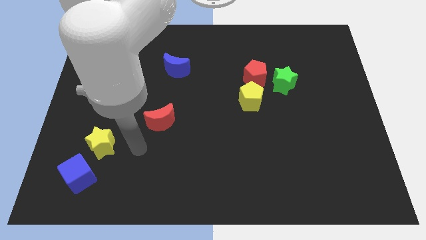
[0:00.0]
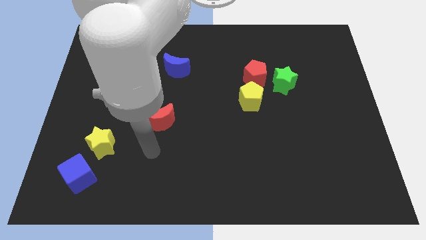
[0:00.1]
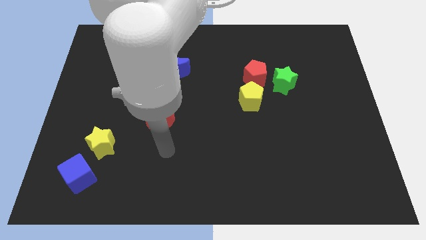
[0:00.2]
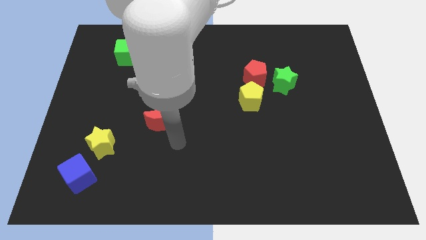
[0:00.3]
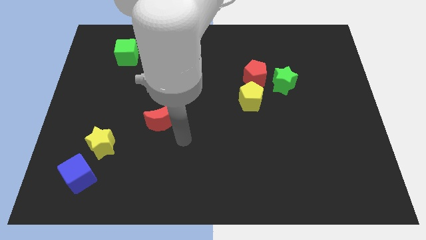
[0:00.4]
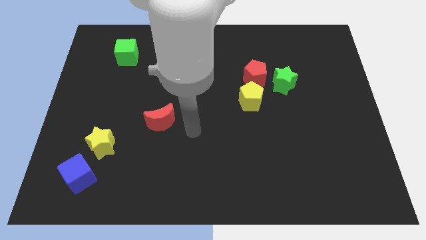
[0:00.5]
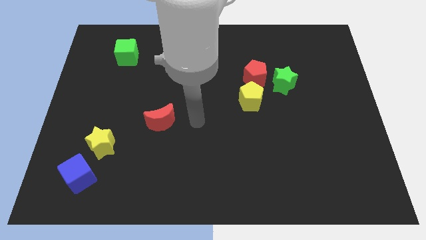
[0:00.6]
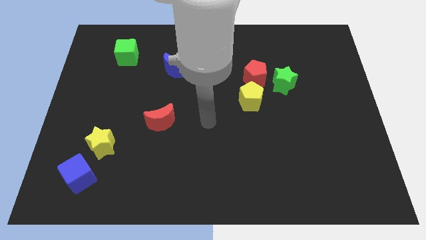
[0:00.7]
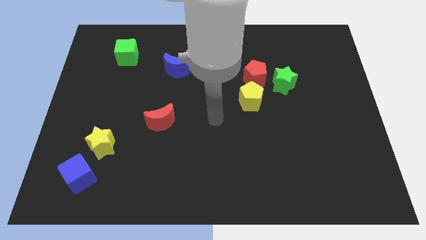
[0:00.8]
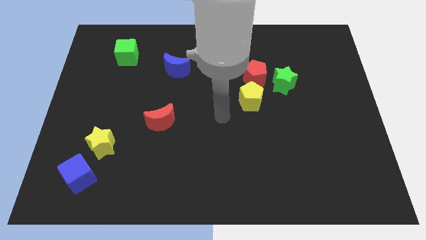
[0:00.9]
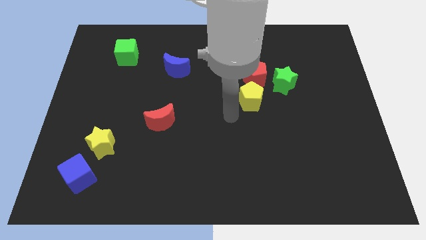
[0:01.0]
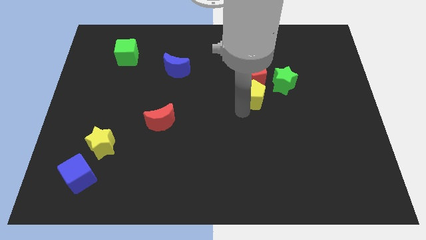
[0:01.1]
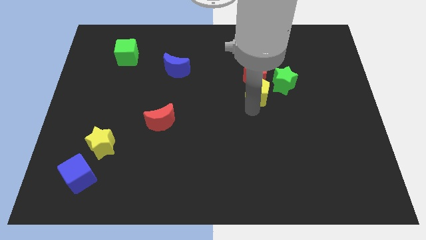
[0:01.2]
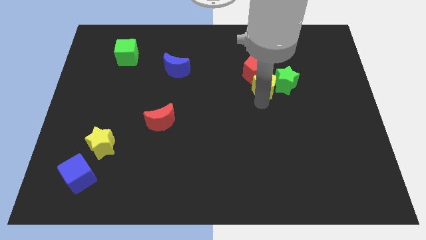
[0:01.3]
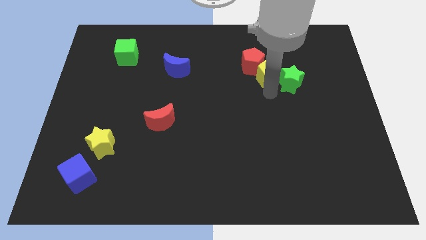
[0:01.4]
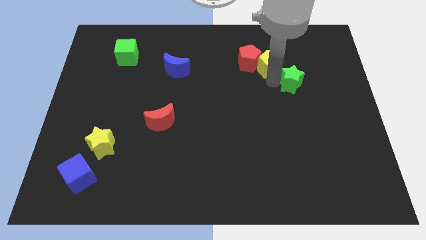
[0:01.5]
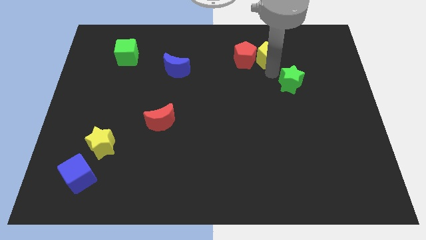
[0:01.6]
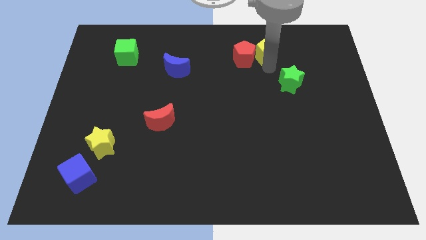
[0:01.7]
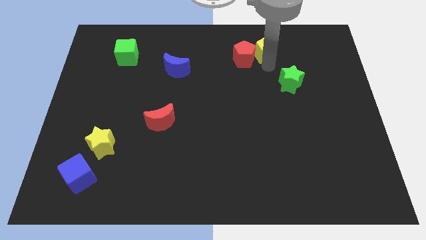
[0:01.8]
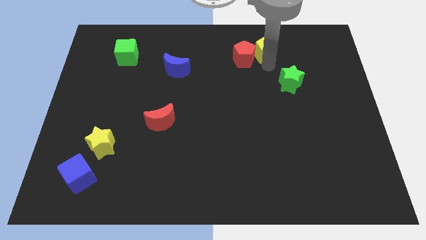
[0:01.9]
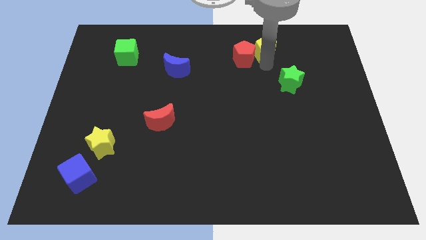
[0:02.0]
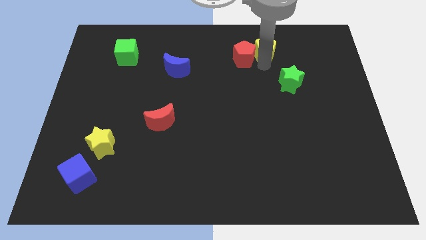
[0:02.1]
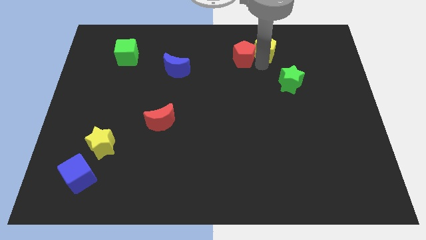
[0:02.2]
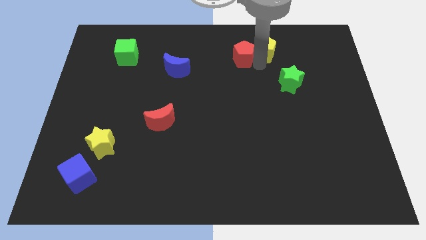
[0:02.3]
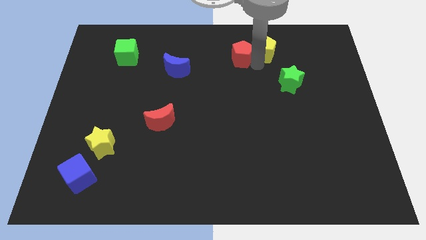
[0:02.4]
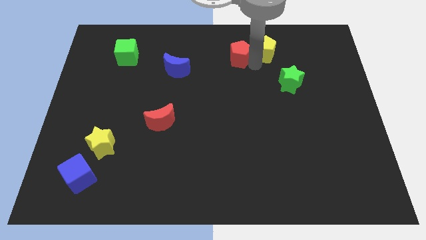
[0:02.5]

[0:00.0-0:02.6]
separate the red pentagon from the green star and yellow pentagon

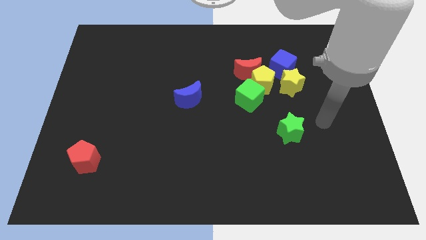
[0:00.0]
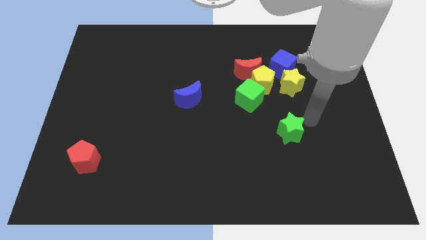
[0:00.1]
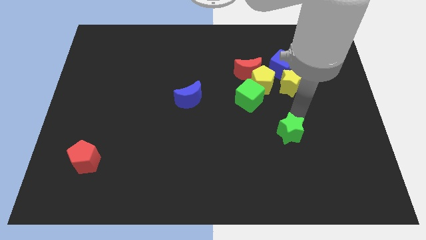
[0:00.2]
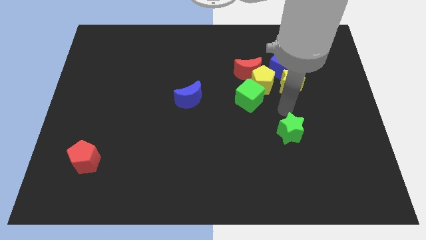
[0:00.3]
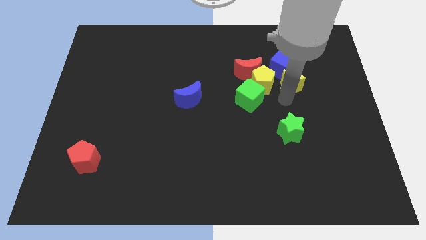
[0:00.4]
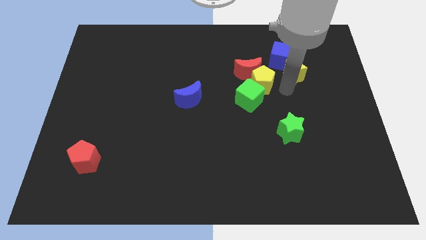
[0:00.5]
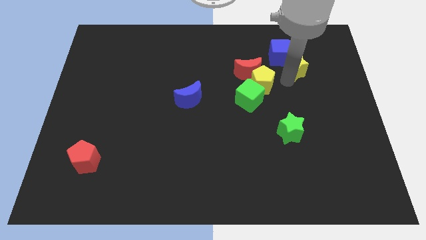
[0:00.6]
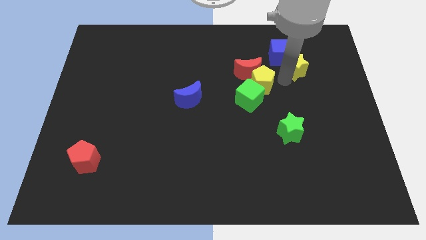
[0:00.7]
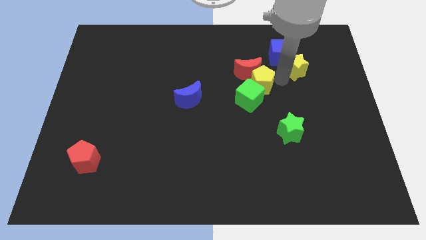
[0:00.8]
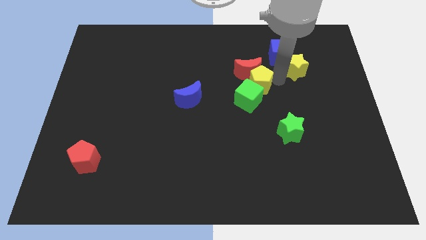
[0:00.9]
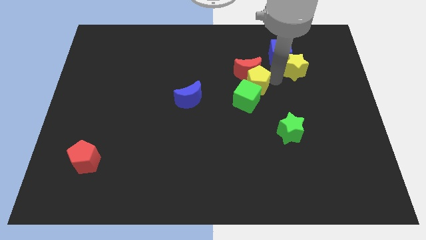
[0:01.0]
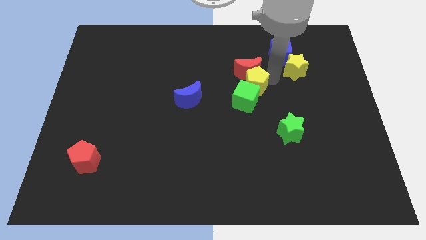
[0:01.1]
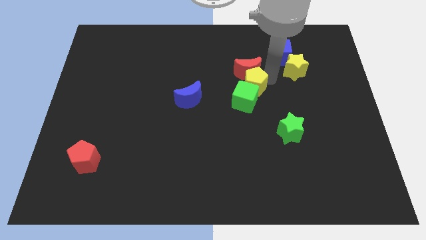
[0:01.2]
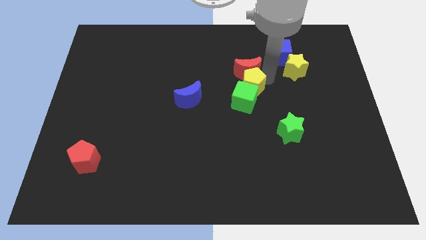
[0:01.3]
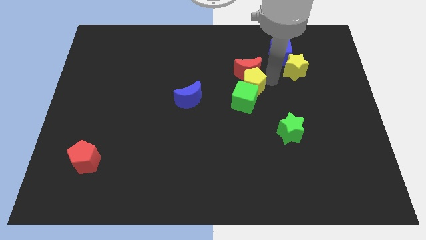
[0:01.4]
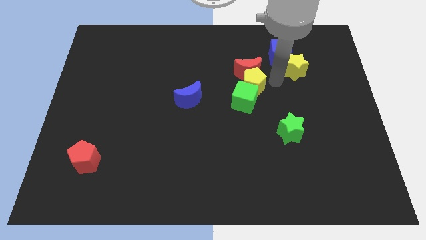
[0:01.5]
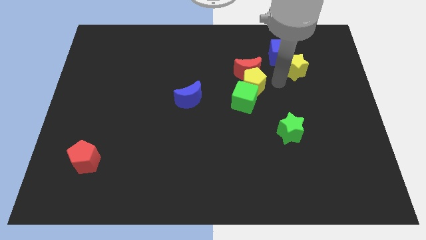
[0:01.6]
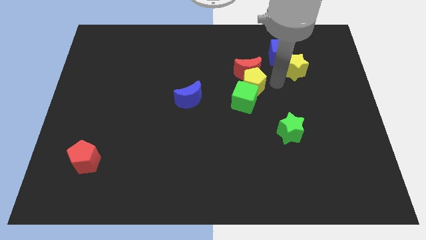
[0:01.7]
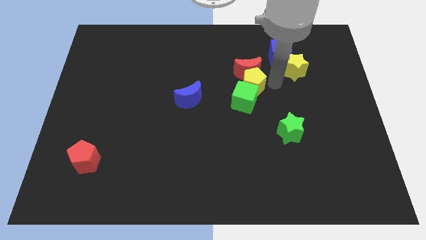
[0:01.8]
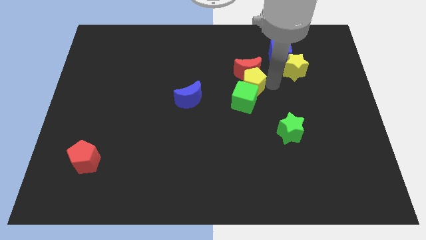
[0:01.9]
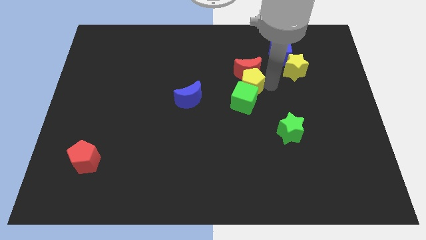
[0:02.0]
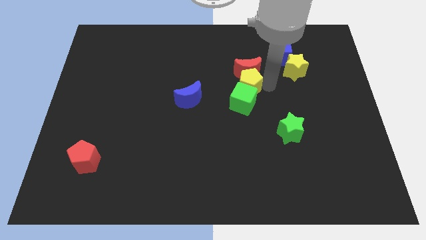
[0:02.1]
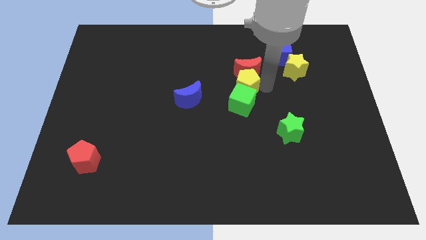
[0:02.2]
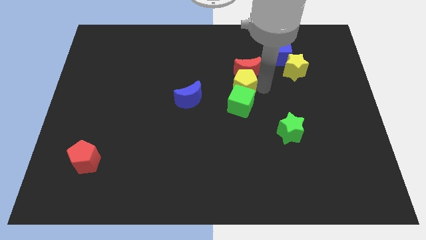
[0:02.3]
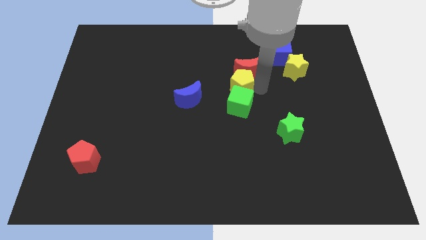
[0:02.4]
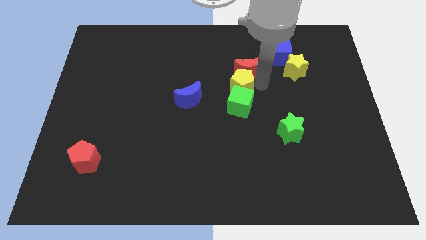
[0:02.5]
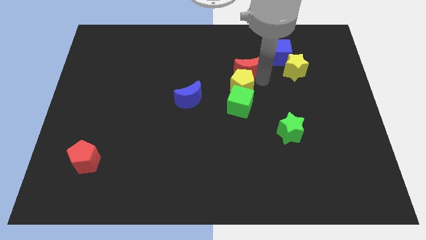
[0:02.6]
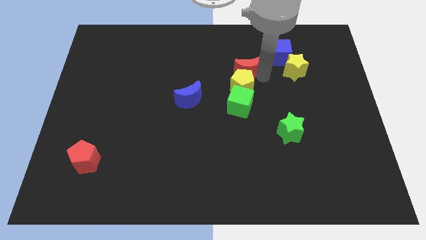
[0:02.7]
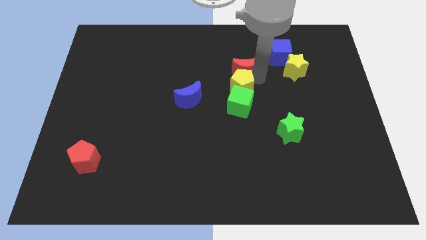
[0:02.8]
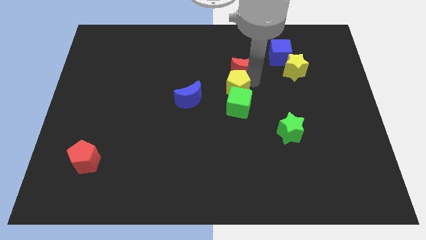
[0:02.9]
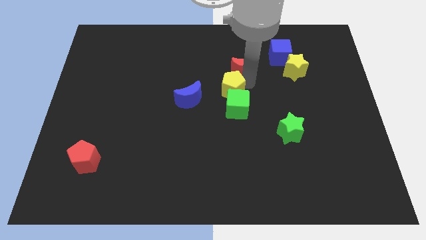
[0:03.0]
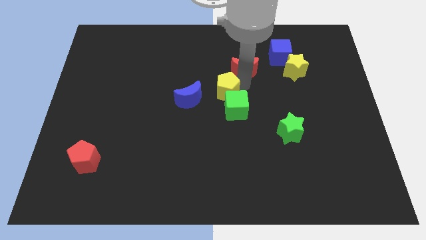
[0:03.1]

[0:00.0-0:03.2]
move the yellow pentagon away from the clump

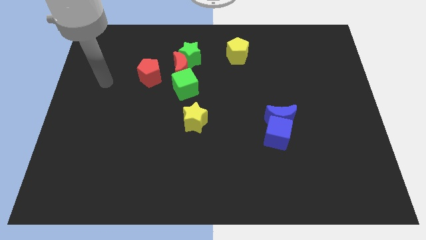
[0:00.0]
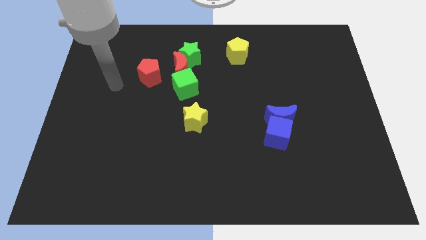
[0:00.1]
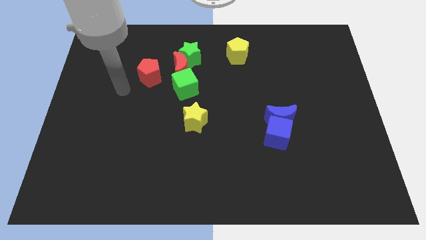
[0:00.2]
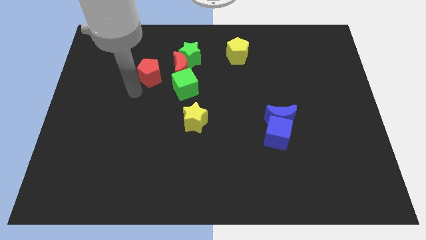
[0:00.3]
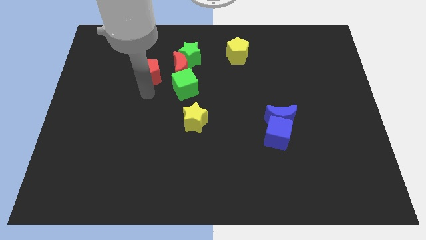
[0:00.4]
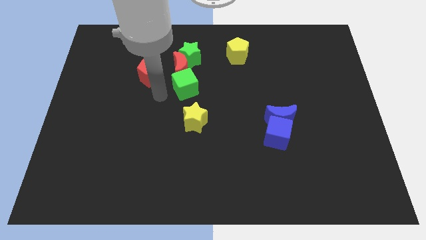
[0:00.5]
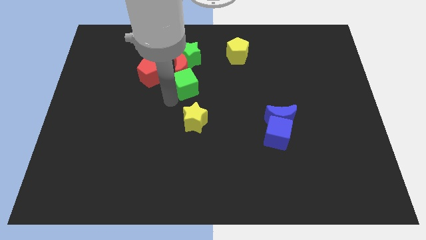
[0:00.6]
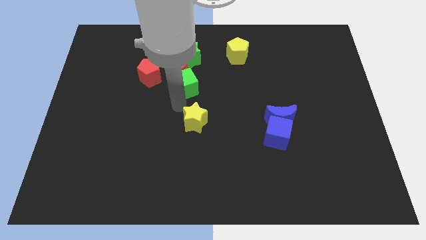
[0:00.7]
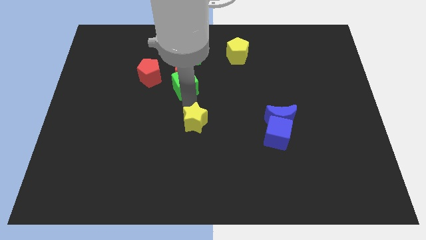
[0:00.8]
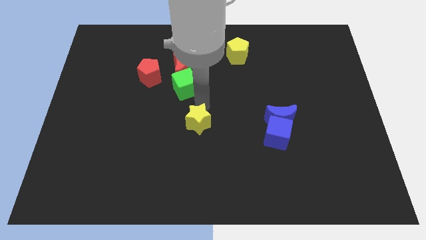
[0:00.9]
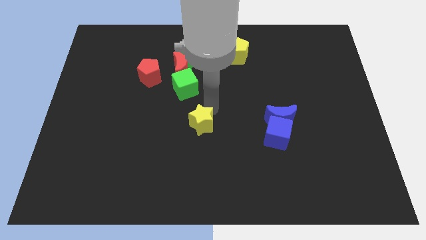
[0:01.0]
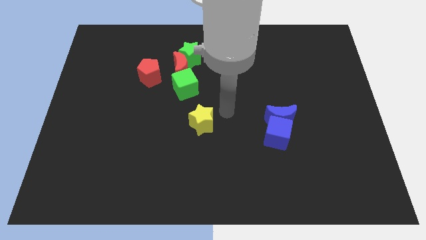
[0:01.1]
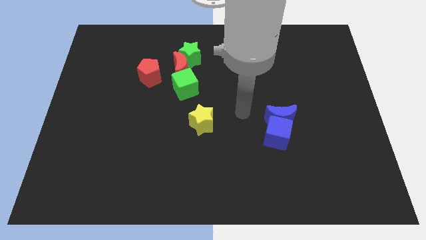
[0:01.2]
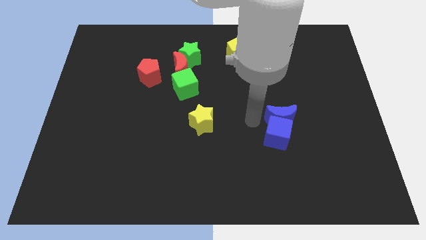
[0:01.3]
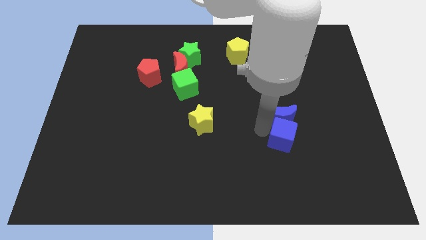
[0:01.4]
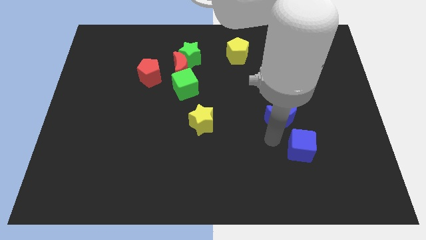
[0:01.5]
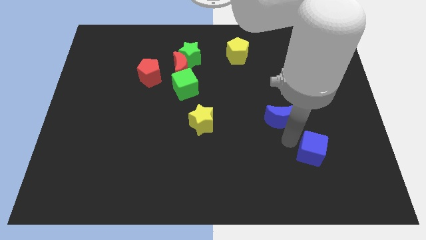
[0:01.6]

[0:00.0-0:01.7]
pull the blue moon apart from the blue cube

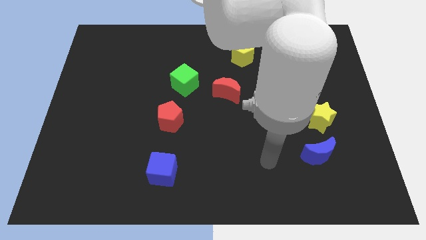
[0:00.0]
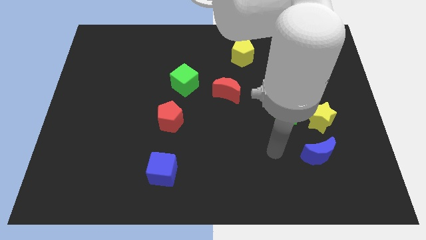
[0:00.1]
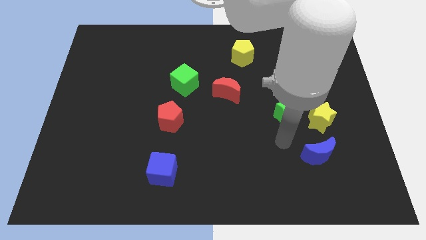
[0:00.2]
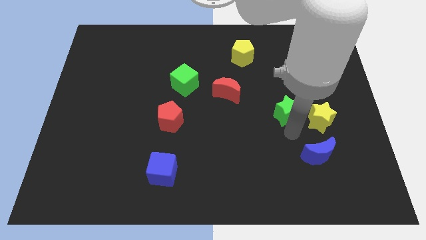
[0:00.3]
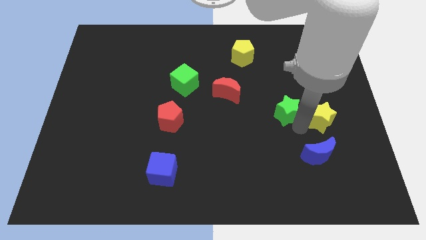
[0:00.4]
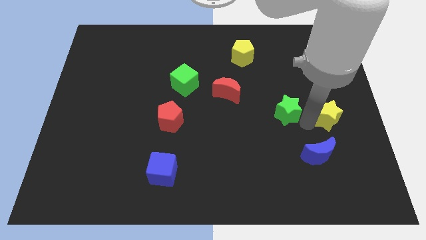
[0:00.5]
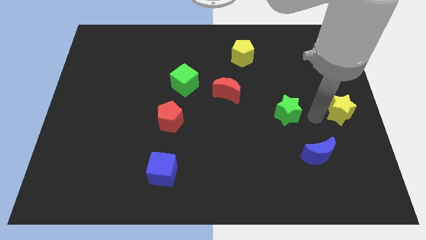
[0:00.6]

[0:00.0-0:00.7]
pull the green star apart from the yellow star

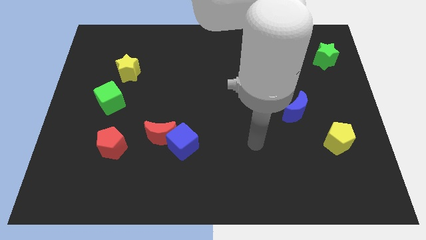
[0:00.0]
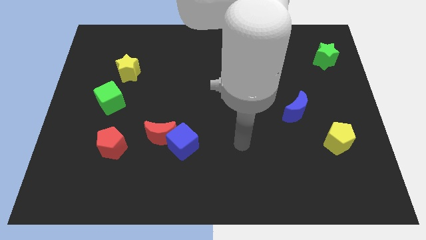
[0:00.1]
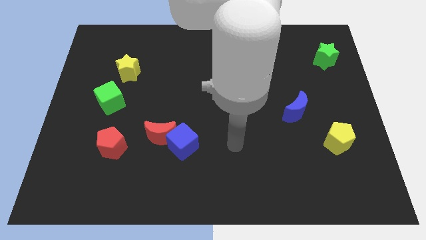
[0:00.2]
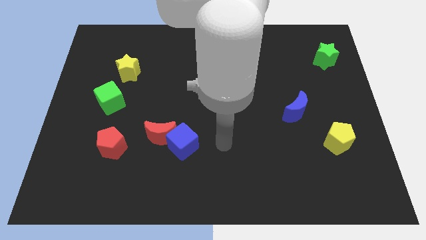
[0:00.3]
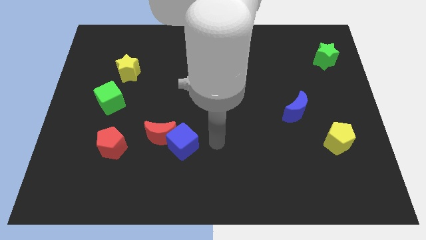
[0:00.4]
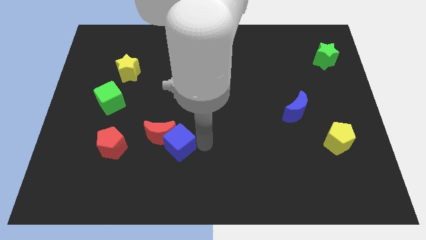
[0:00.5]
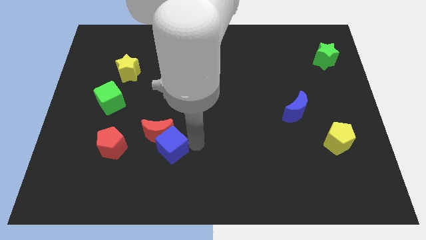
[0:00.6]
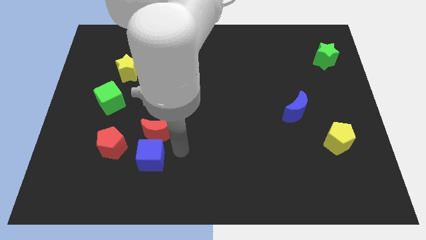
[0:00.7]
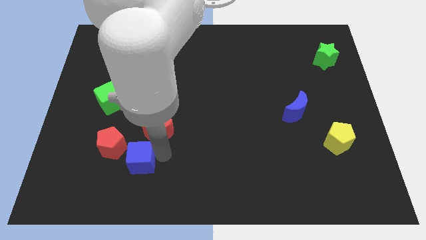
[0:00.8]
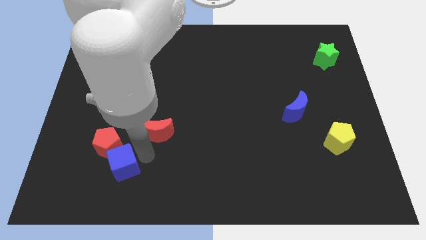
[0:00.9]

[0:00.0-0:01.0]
separate the red moon from the blue cube
